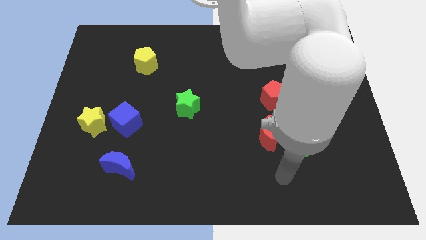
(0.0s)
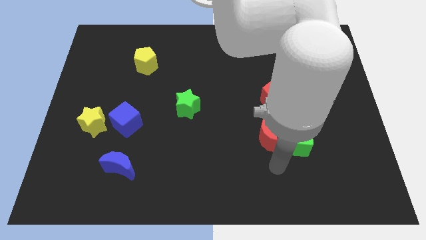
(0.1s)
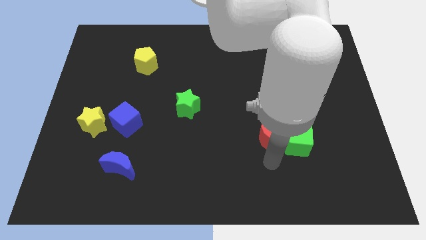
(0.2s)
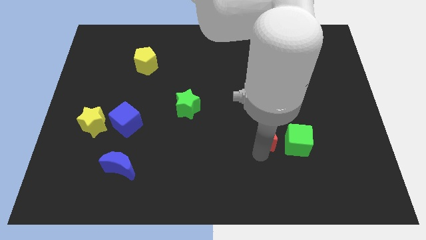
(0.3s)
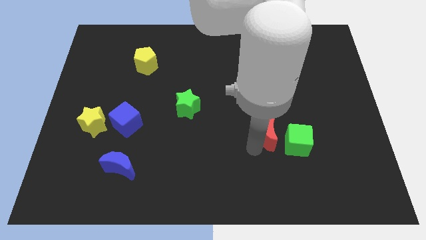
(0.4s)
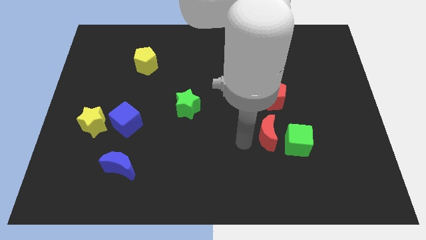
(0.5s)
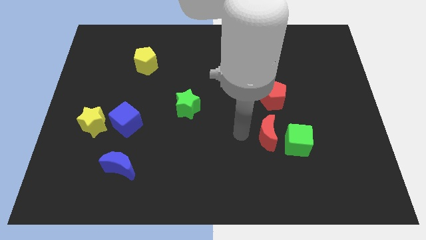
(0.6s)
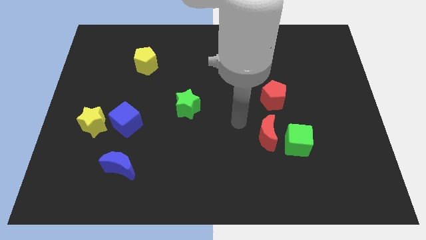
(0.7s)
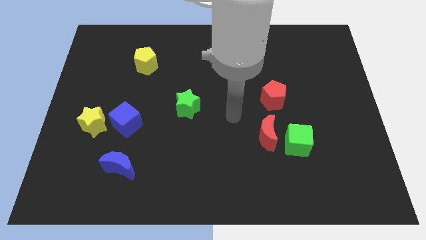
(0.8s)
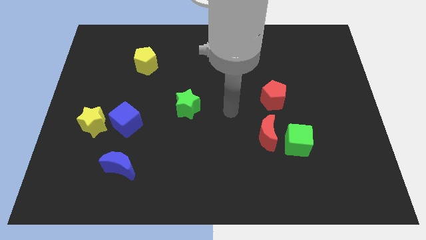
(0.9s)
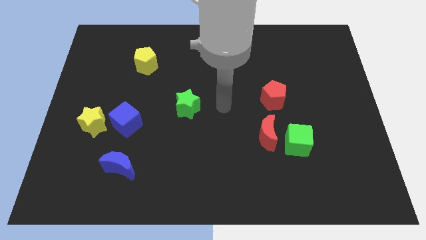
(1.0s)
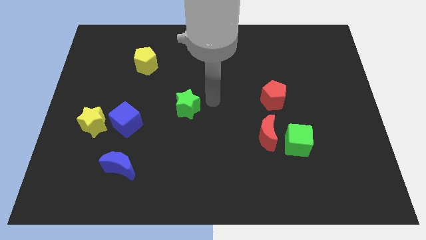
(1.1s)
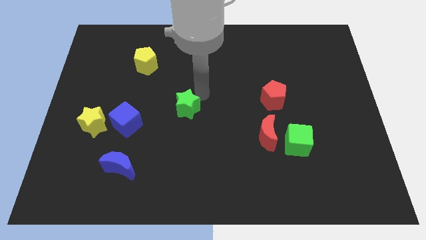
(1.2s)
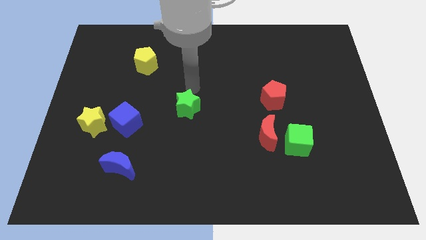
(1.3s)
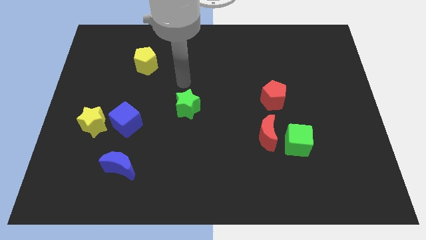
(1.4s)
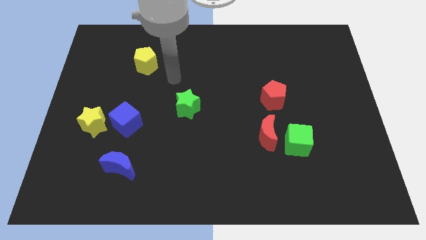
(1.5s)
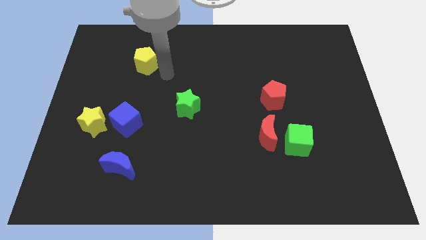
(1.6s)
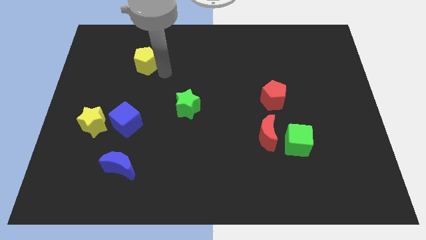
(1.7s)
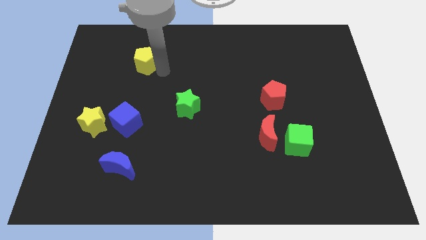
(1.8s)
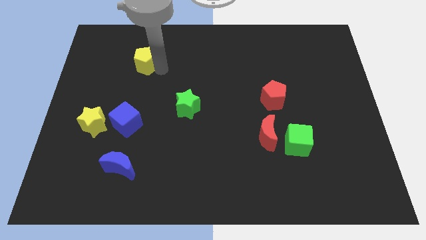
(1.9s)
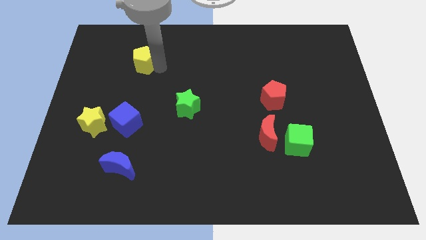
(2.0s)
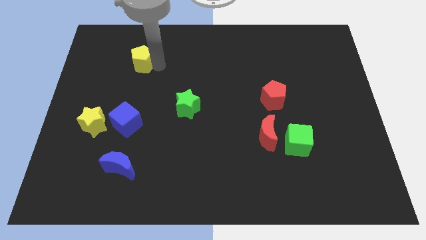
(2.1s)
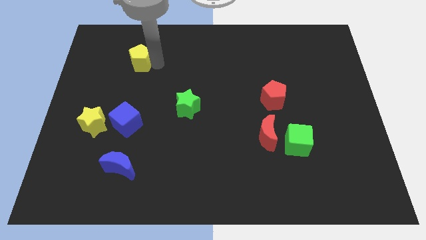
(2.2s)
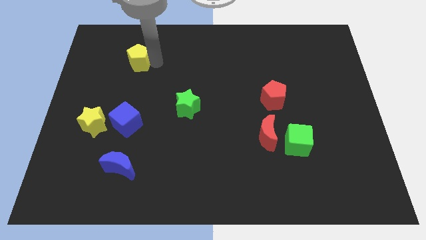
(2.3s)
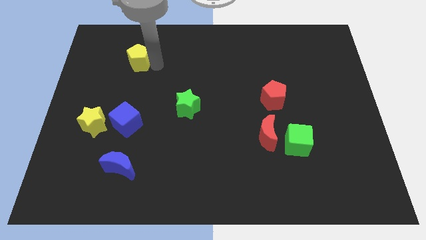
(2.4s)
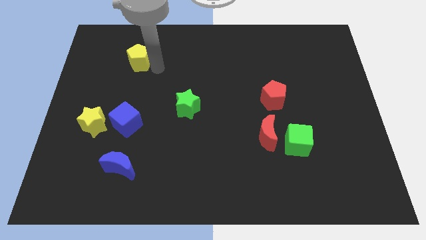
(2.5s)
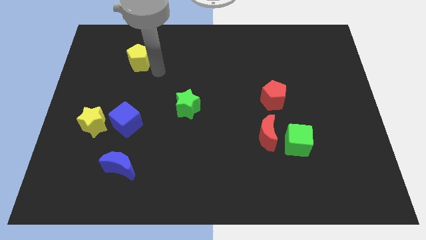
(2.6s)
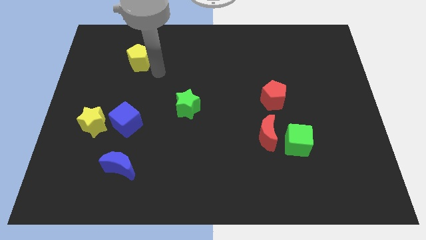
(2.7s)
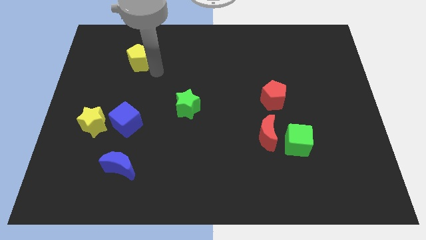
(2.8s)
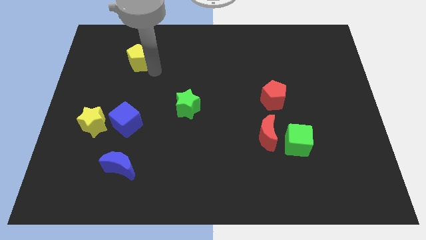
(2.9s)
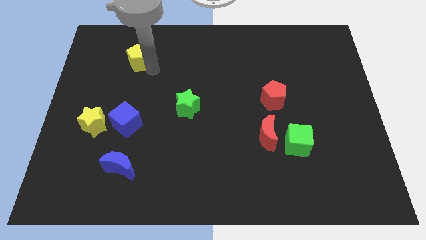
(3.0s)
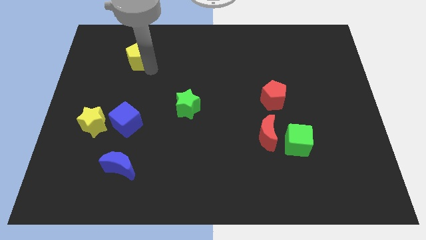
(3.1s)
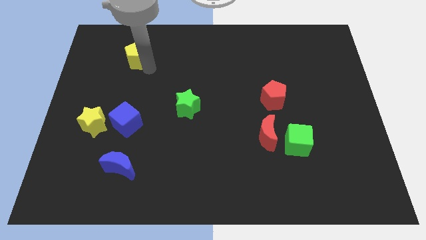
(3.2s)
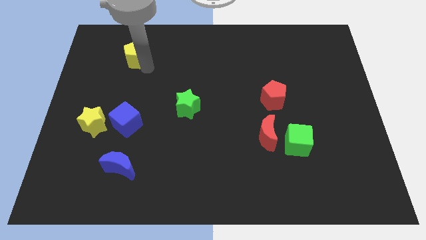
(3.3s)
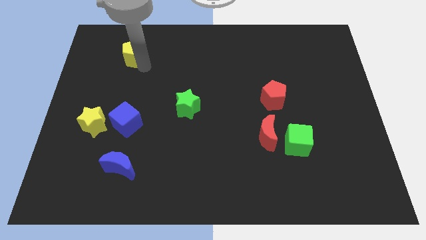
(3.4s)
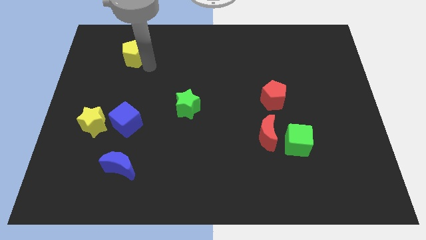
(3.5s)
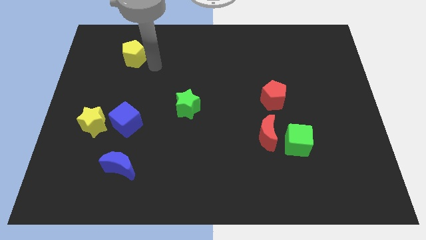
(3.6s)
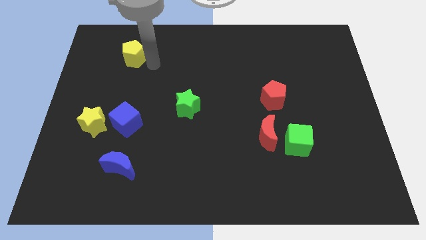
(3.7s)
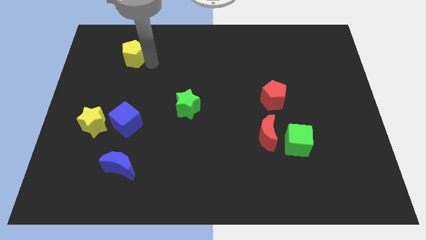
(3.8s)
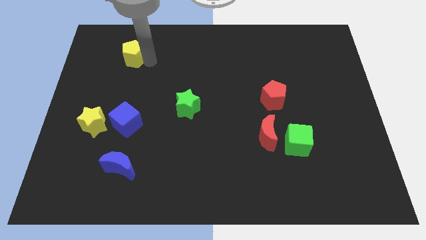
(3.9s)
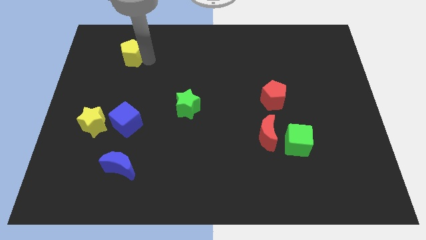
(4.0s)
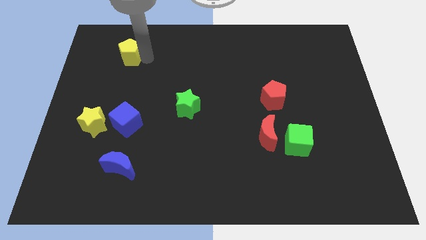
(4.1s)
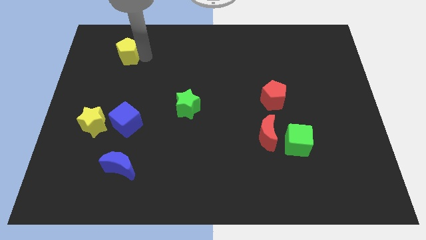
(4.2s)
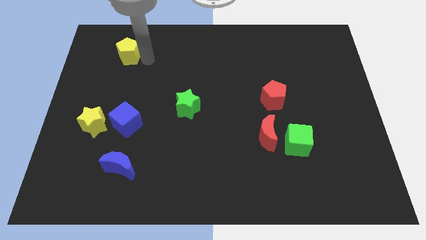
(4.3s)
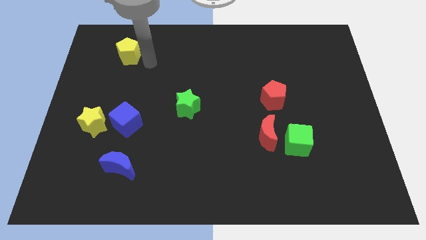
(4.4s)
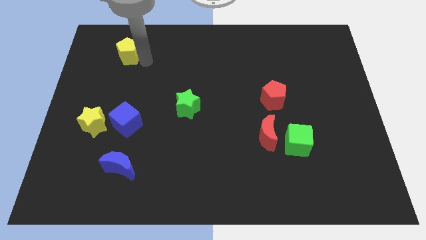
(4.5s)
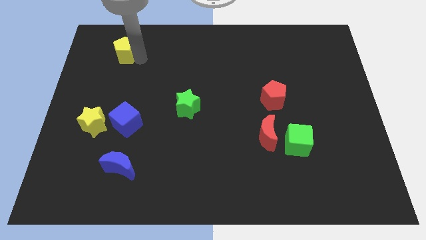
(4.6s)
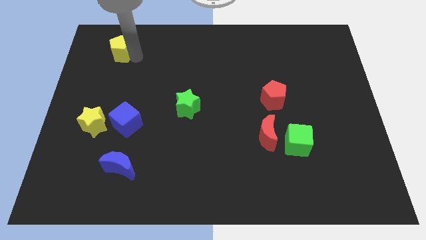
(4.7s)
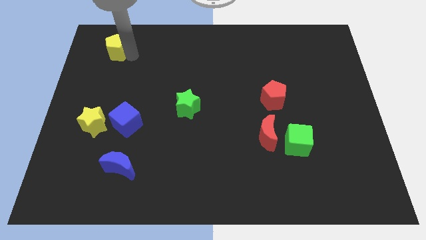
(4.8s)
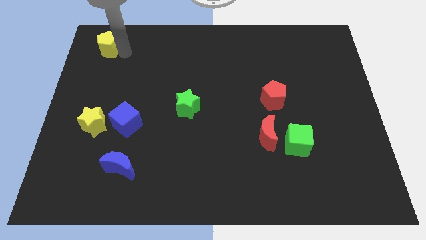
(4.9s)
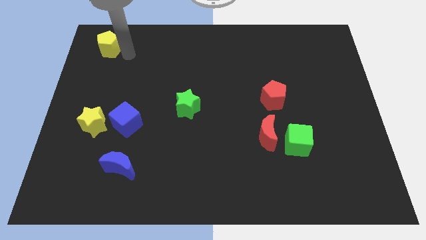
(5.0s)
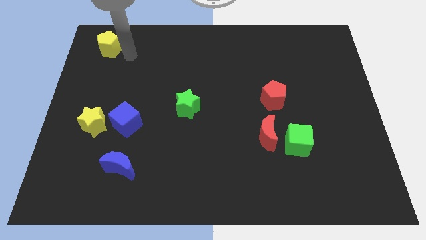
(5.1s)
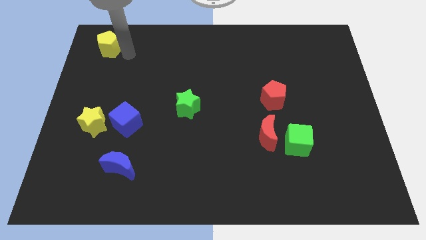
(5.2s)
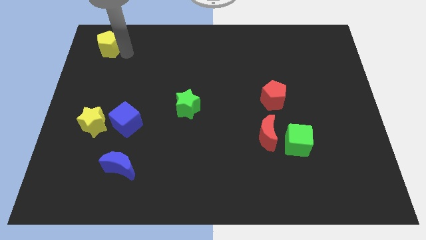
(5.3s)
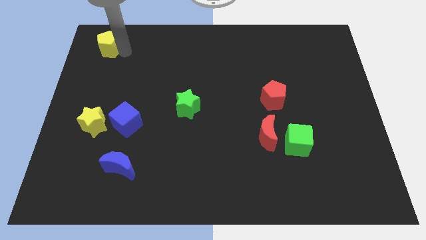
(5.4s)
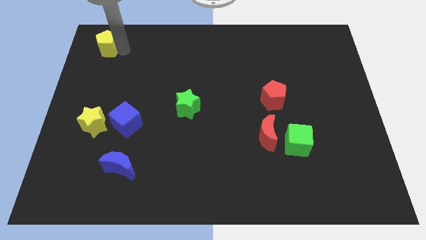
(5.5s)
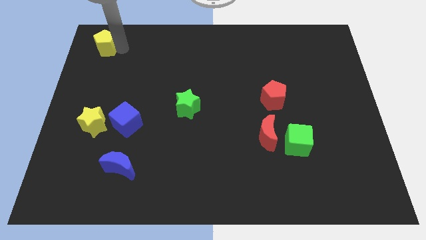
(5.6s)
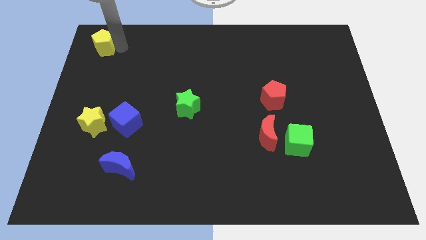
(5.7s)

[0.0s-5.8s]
put the yellow pentagon to the top left corner
